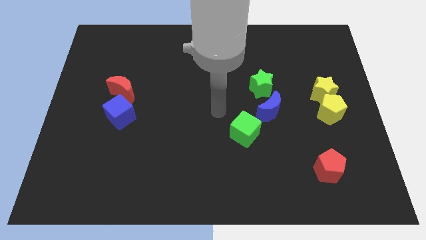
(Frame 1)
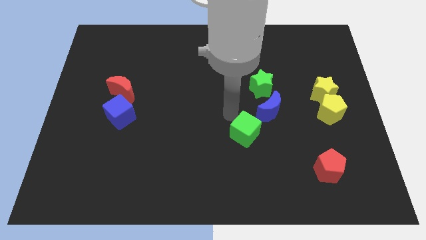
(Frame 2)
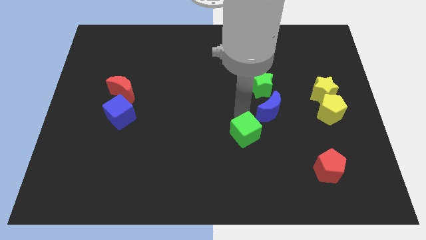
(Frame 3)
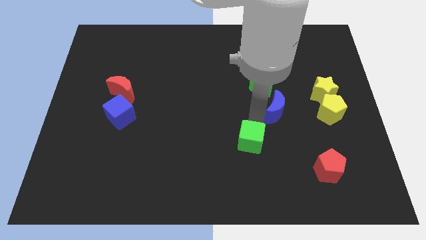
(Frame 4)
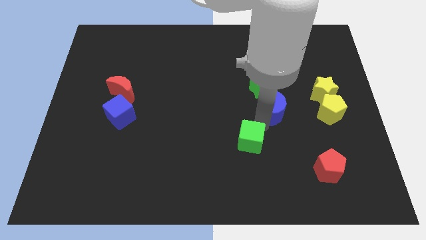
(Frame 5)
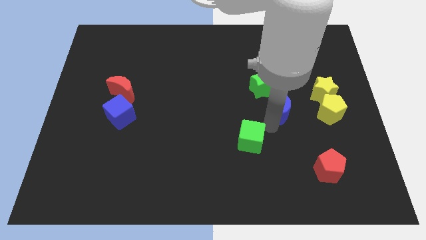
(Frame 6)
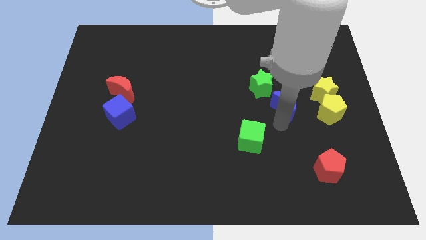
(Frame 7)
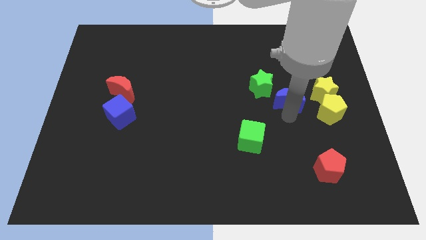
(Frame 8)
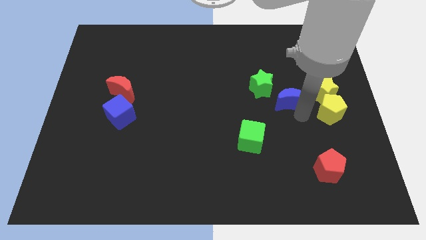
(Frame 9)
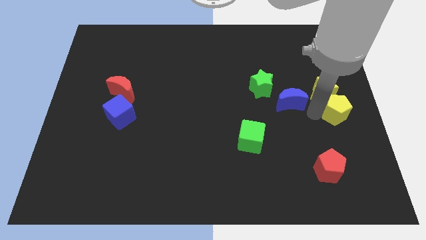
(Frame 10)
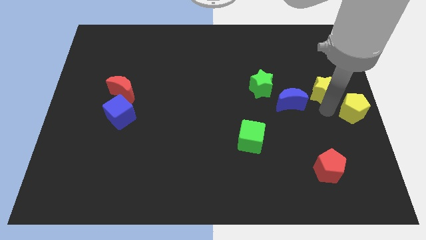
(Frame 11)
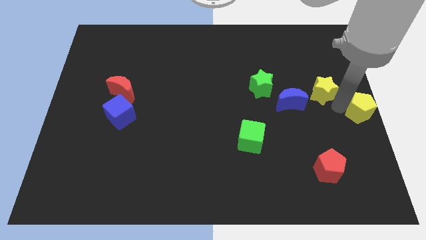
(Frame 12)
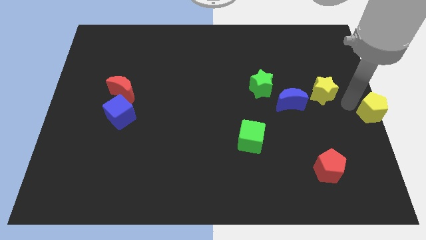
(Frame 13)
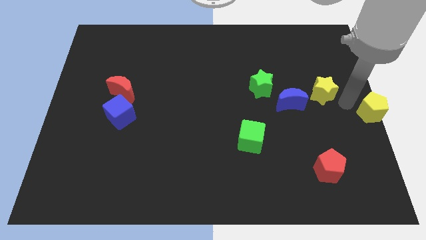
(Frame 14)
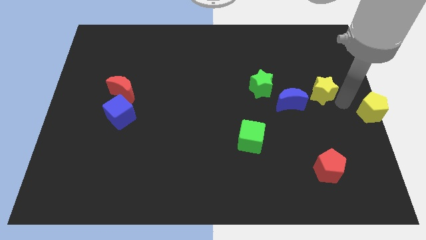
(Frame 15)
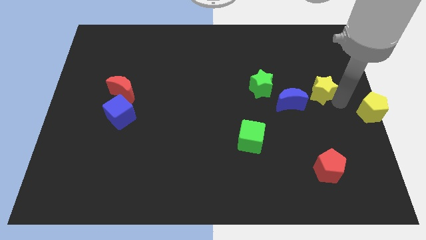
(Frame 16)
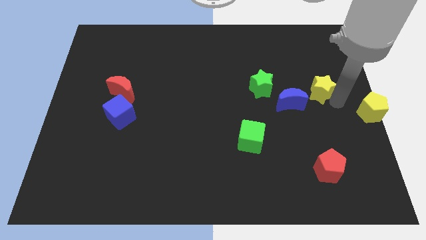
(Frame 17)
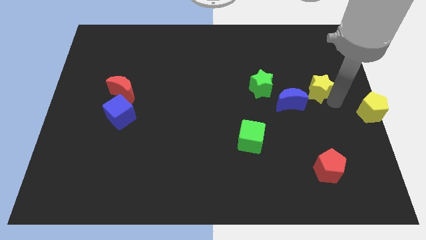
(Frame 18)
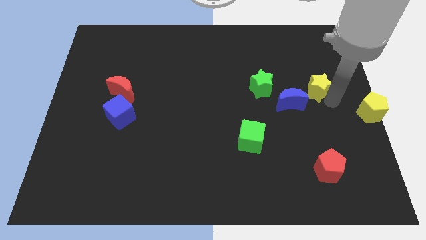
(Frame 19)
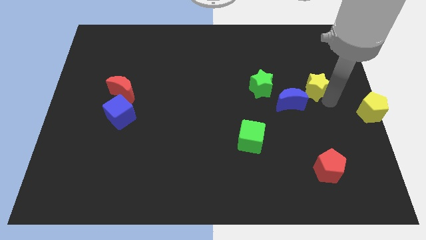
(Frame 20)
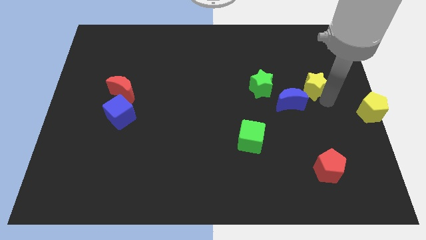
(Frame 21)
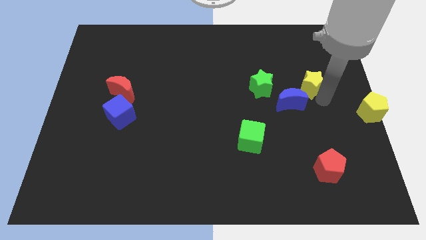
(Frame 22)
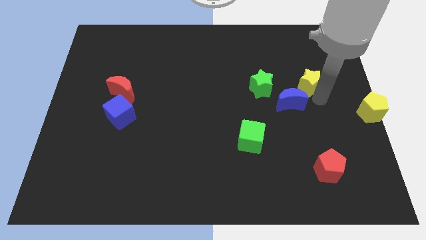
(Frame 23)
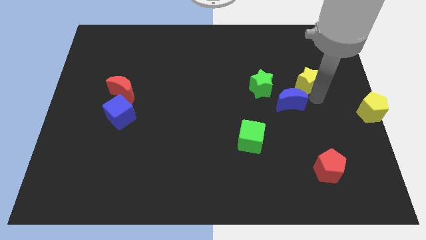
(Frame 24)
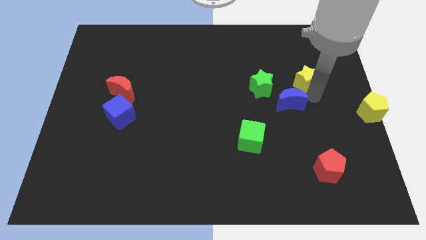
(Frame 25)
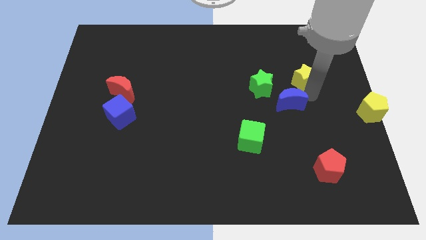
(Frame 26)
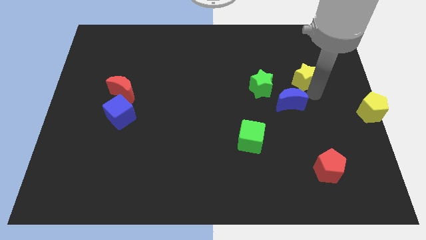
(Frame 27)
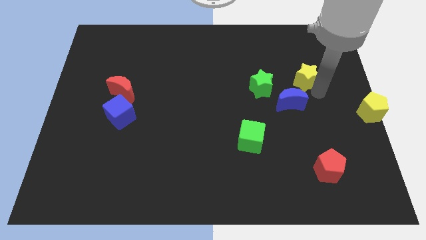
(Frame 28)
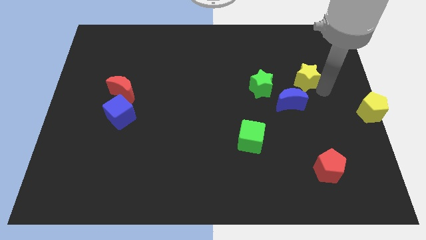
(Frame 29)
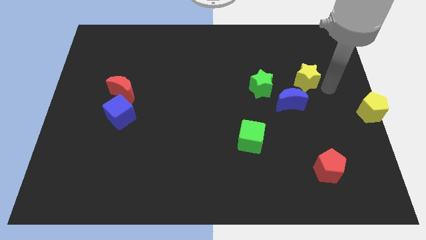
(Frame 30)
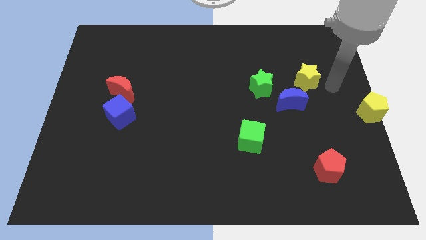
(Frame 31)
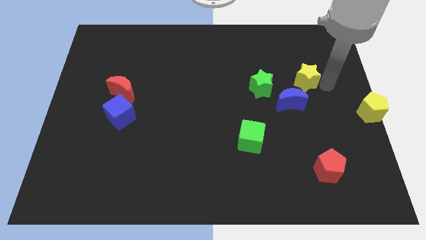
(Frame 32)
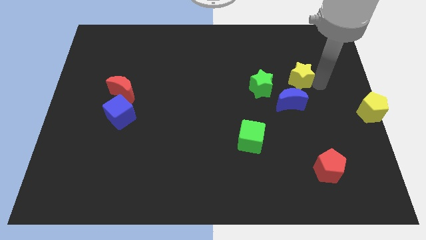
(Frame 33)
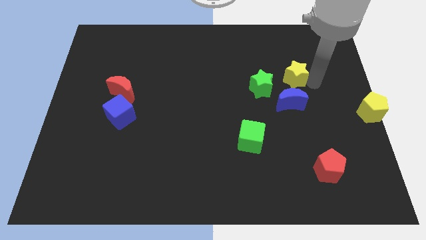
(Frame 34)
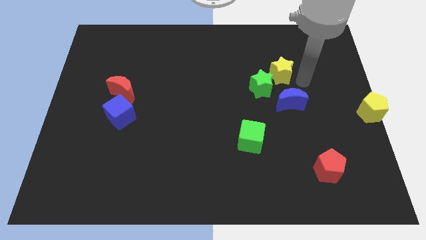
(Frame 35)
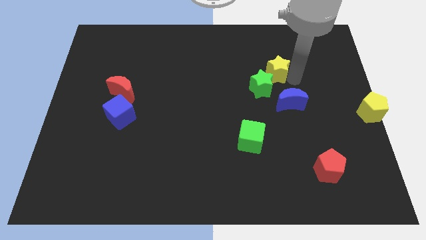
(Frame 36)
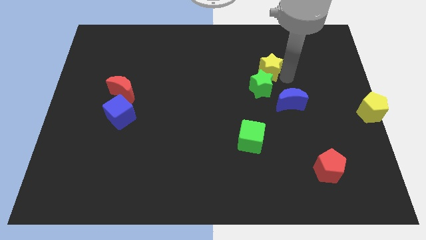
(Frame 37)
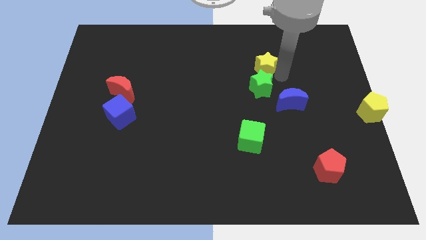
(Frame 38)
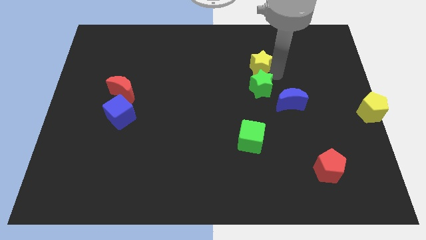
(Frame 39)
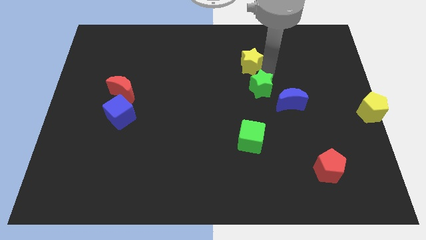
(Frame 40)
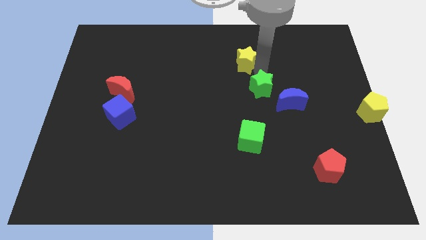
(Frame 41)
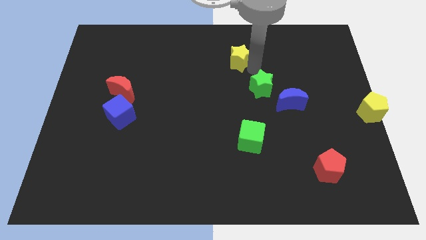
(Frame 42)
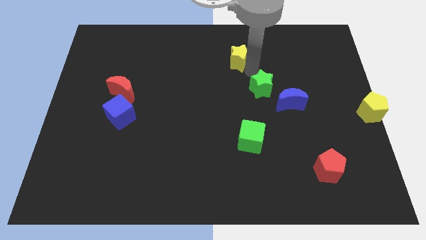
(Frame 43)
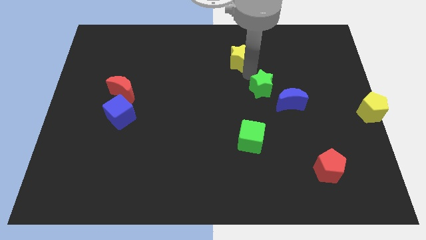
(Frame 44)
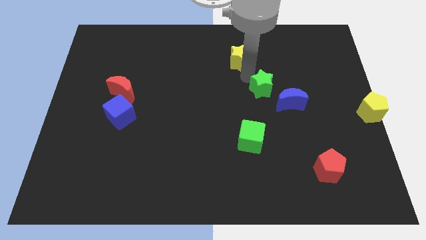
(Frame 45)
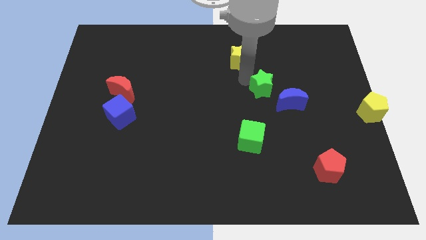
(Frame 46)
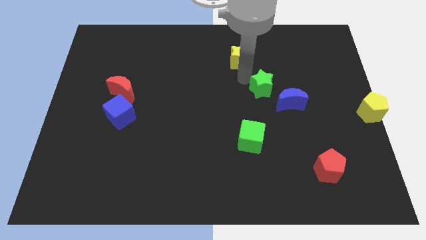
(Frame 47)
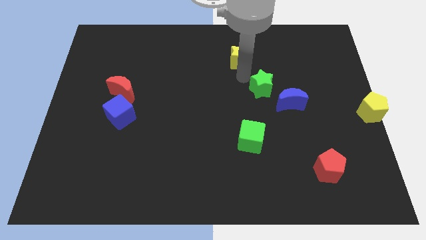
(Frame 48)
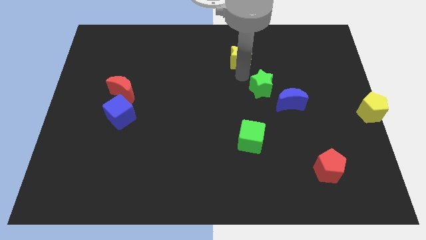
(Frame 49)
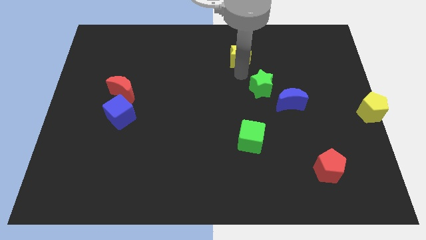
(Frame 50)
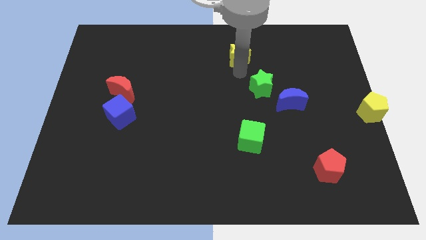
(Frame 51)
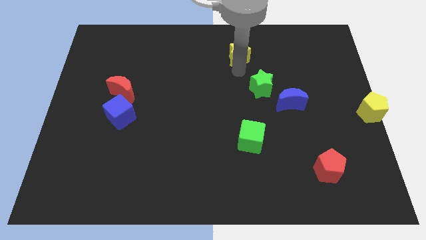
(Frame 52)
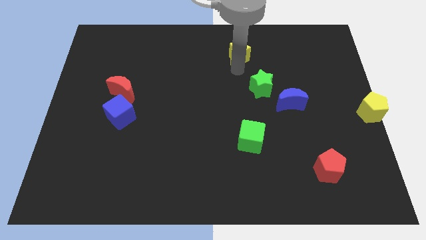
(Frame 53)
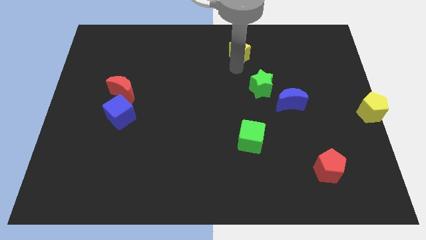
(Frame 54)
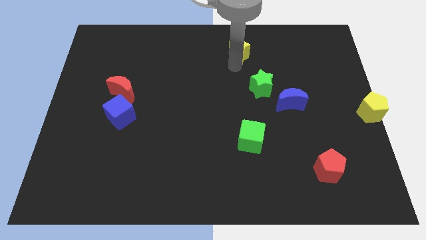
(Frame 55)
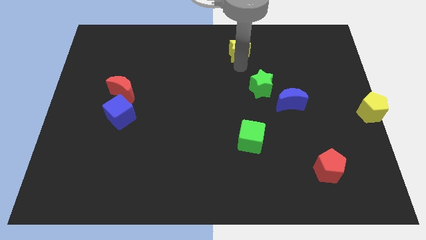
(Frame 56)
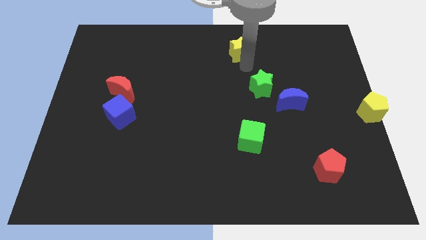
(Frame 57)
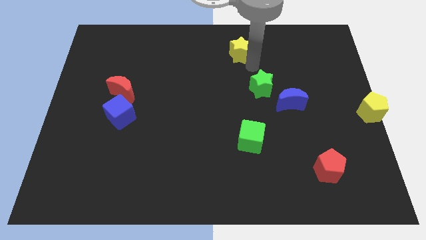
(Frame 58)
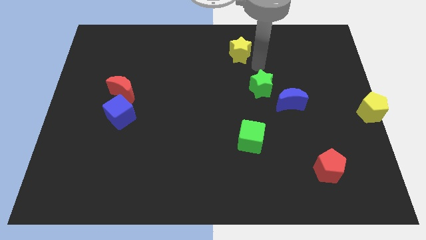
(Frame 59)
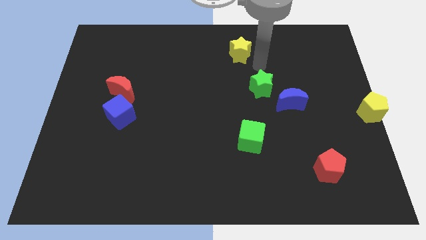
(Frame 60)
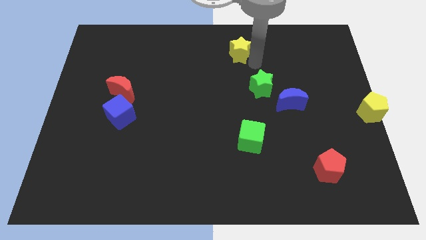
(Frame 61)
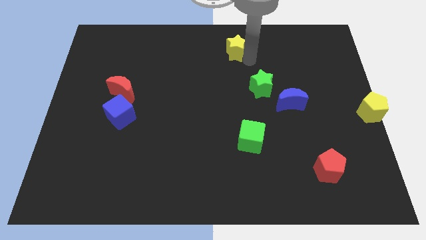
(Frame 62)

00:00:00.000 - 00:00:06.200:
push the yellow star to the top side
